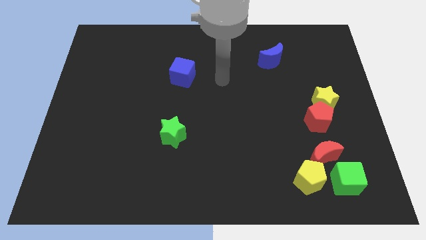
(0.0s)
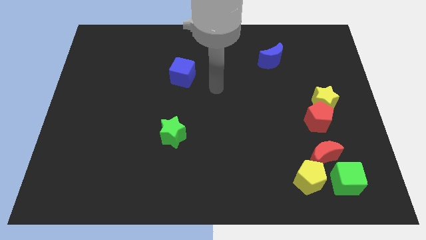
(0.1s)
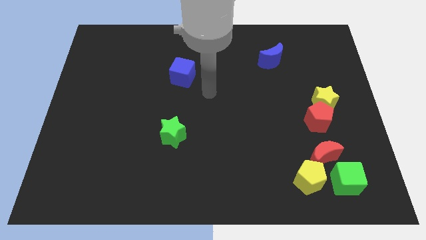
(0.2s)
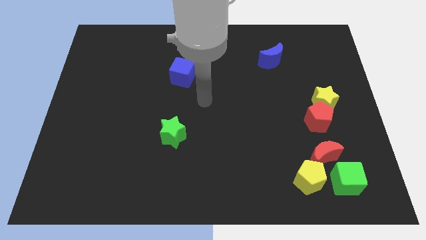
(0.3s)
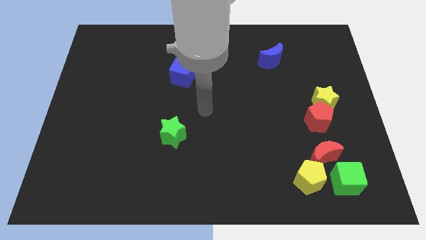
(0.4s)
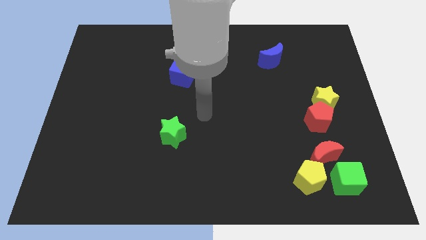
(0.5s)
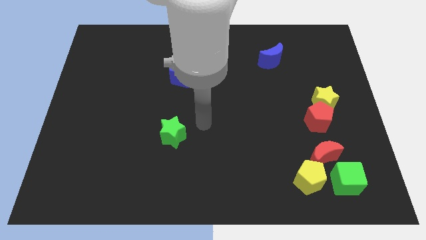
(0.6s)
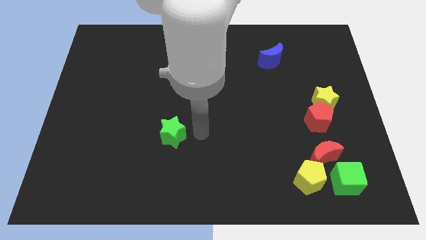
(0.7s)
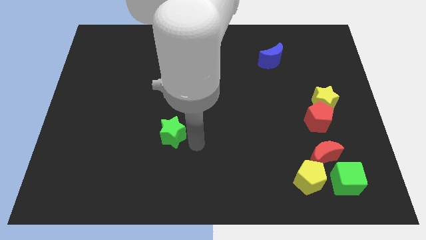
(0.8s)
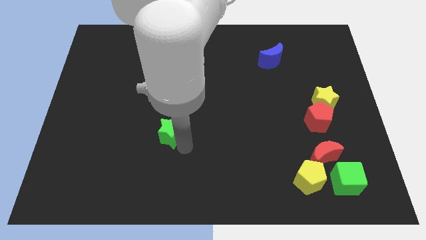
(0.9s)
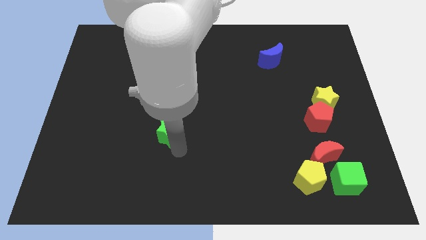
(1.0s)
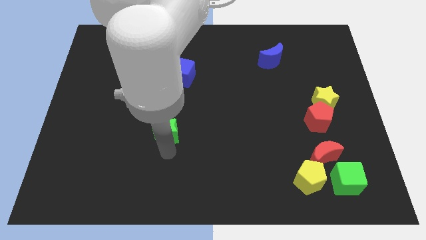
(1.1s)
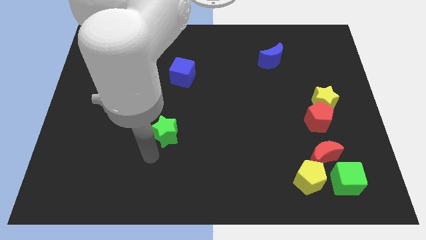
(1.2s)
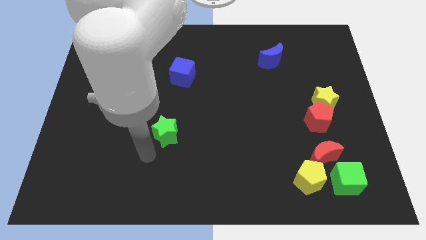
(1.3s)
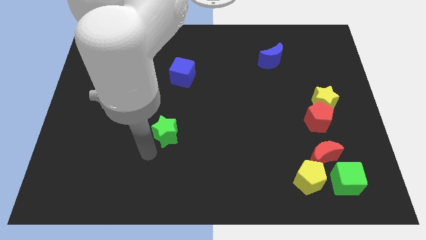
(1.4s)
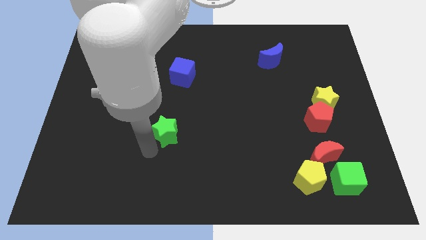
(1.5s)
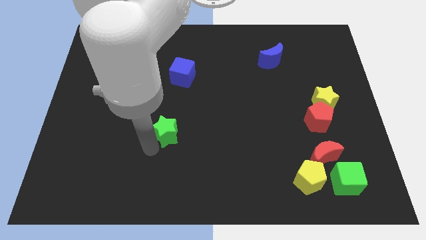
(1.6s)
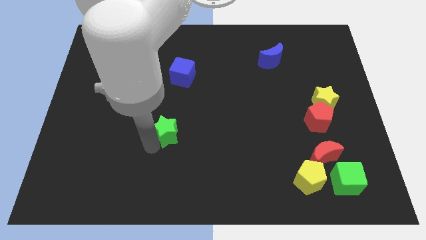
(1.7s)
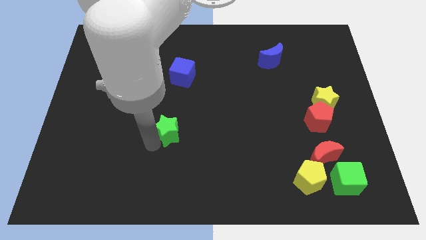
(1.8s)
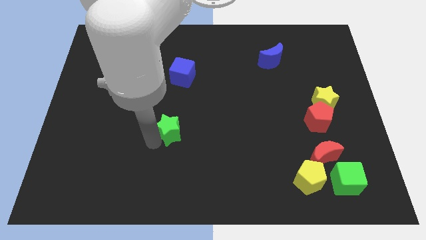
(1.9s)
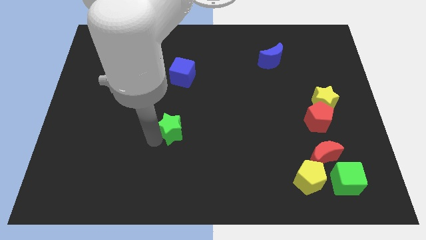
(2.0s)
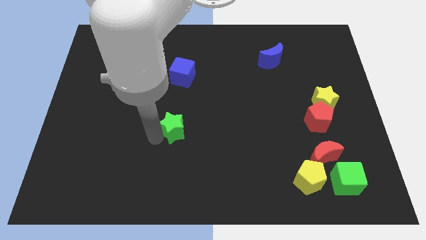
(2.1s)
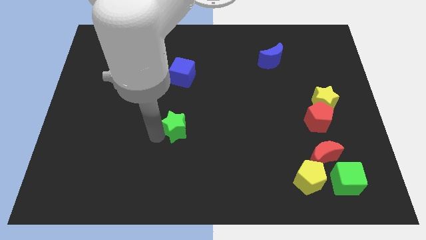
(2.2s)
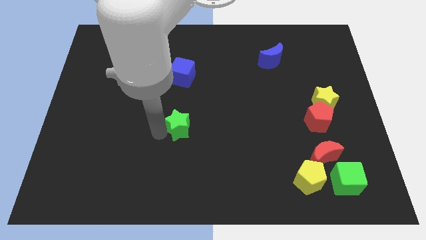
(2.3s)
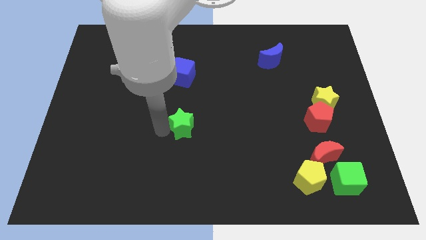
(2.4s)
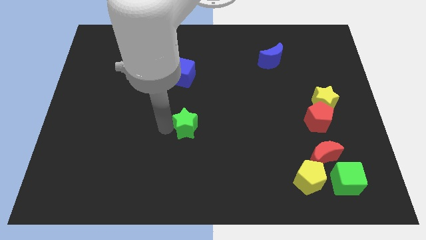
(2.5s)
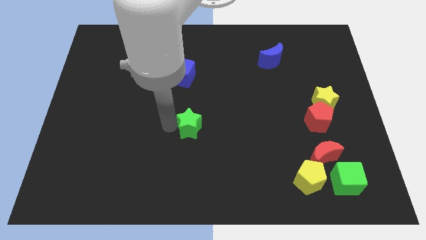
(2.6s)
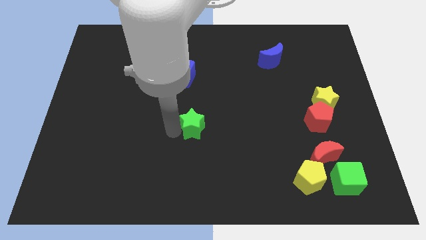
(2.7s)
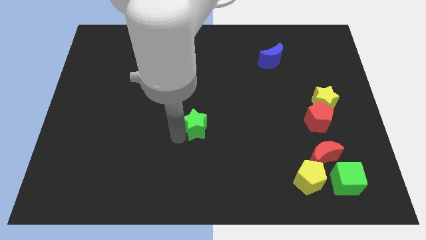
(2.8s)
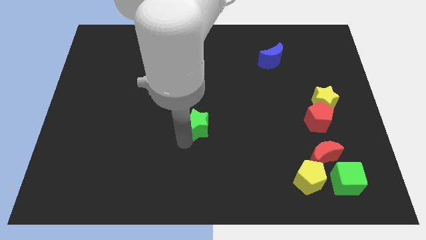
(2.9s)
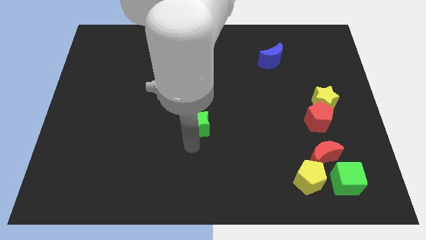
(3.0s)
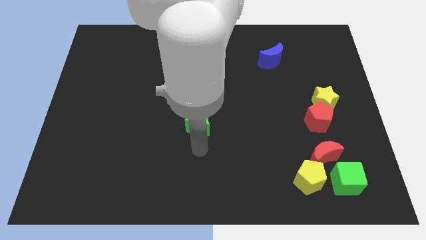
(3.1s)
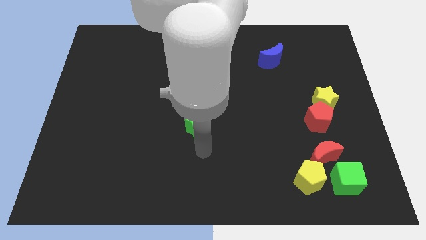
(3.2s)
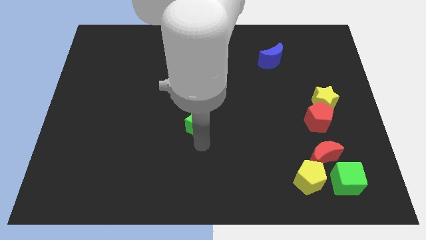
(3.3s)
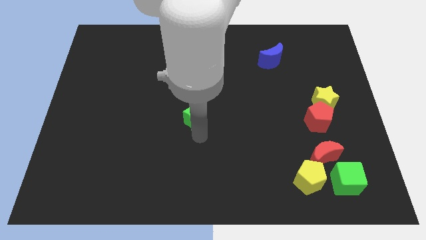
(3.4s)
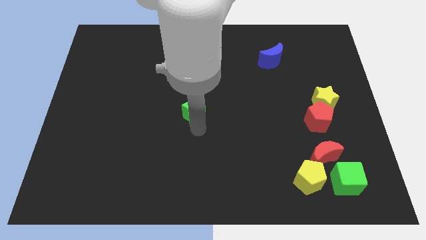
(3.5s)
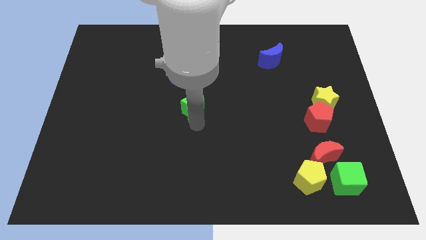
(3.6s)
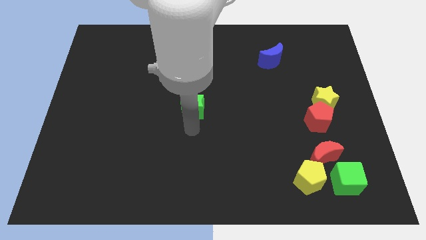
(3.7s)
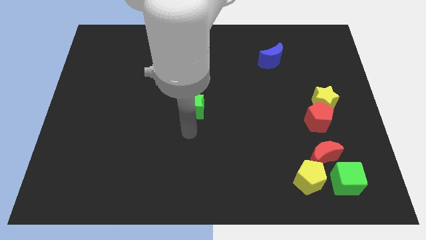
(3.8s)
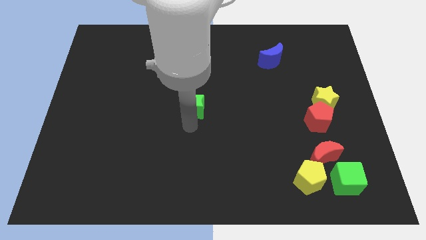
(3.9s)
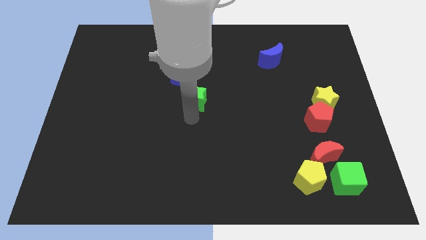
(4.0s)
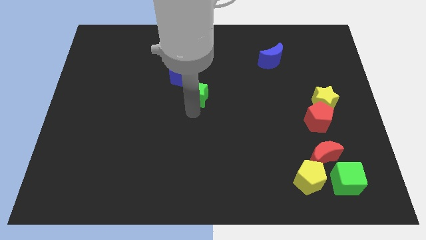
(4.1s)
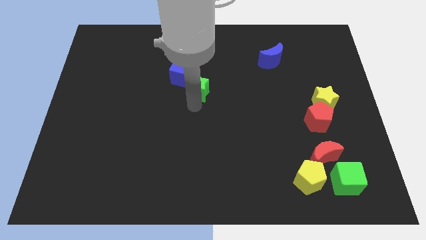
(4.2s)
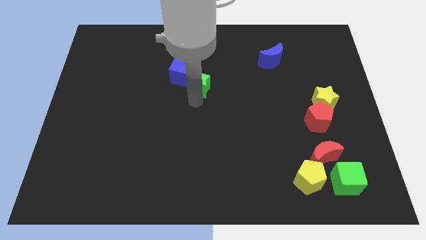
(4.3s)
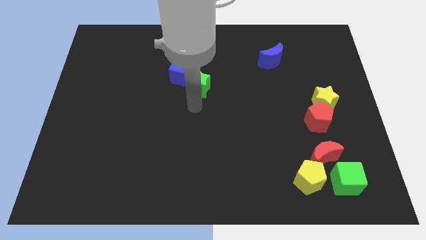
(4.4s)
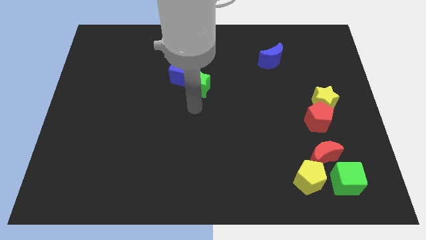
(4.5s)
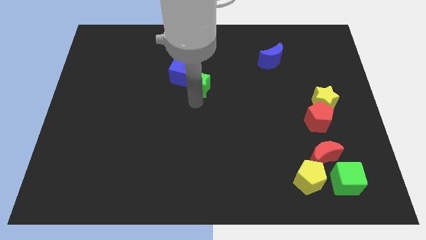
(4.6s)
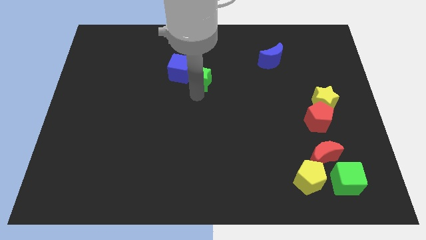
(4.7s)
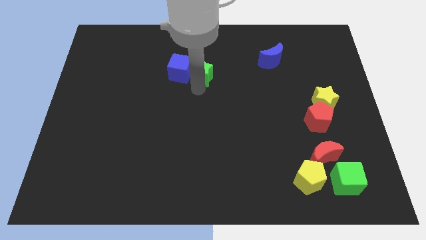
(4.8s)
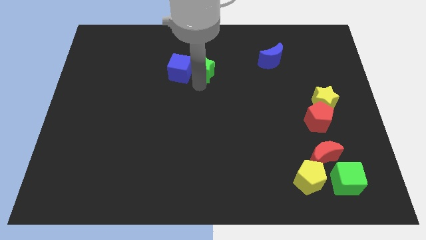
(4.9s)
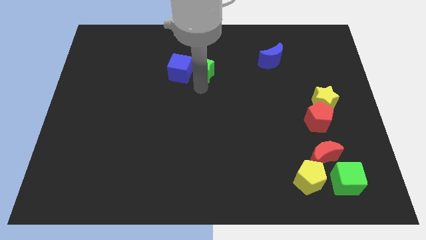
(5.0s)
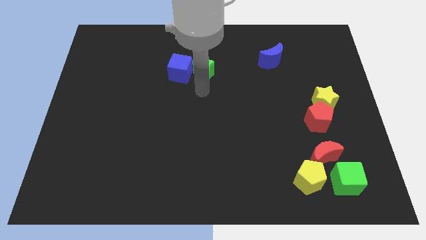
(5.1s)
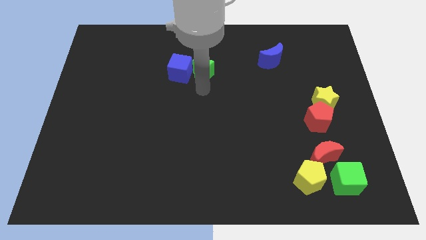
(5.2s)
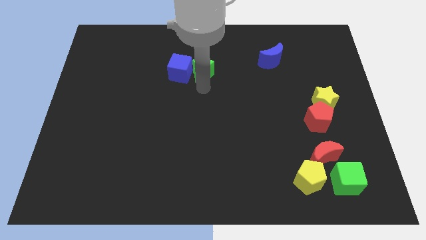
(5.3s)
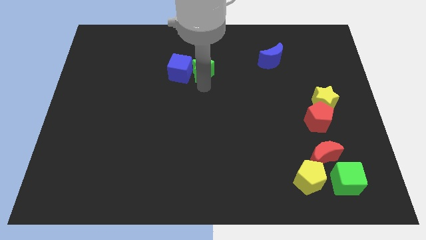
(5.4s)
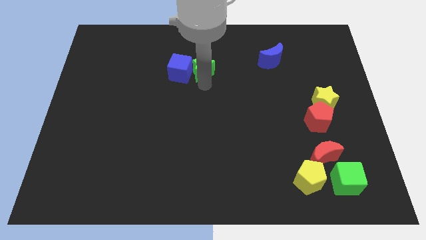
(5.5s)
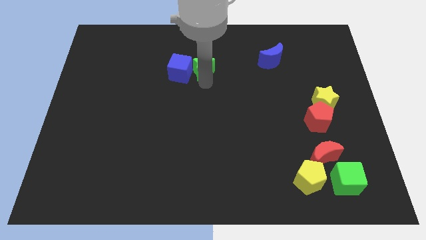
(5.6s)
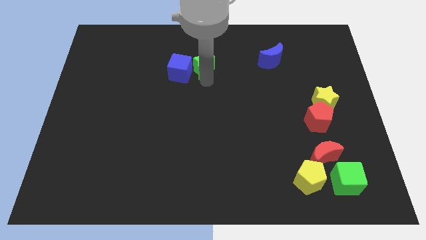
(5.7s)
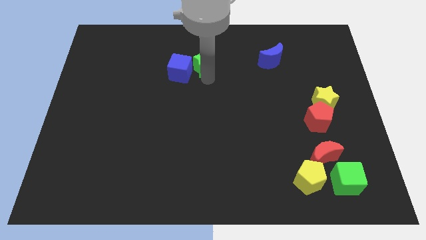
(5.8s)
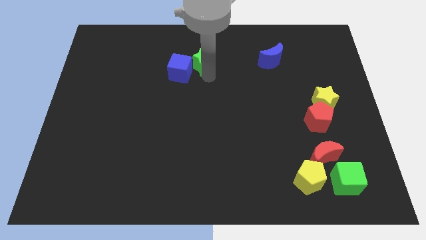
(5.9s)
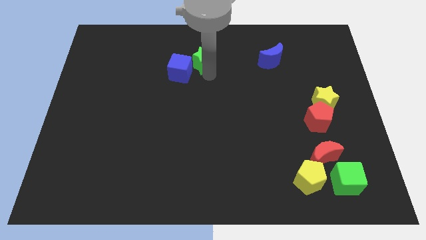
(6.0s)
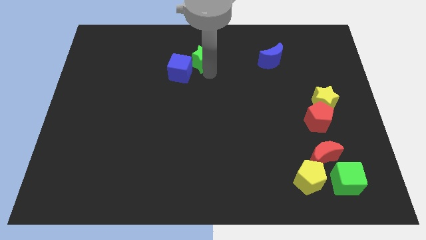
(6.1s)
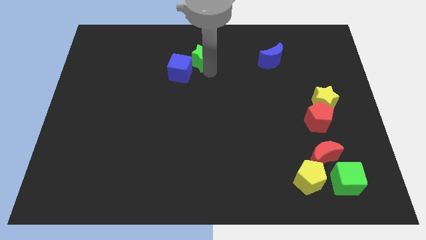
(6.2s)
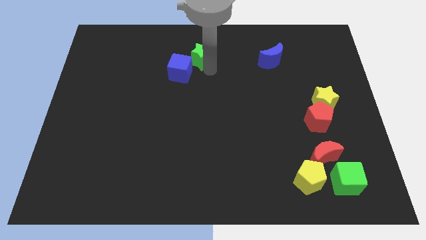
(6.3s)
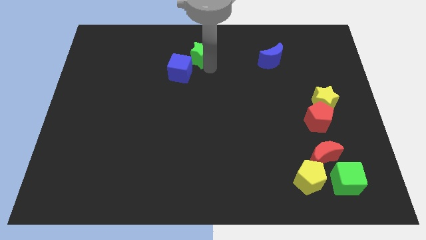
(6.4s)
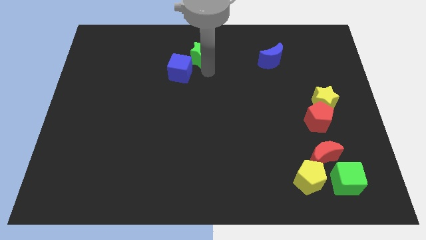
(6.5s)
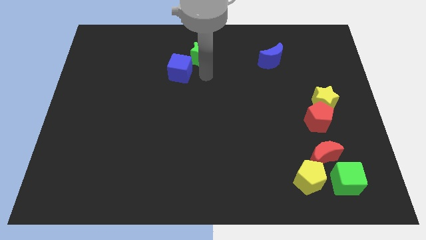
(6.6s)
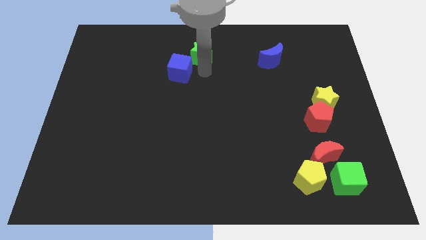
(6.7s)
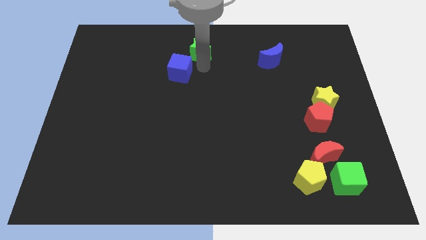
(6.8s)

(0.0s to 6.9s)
put the green star to the top side

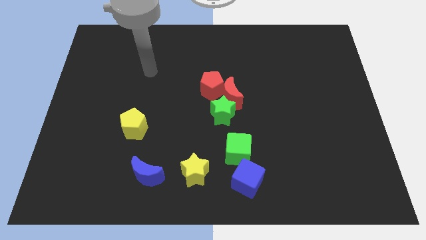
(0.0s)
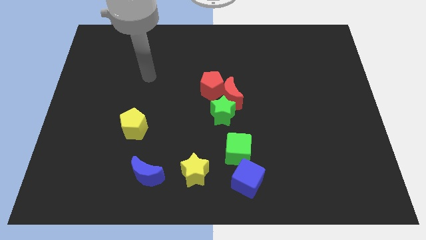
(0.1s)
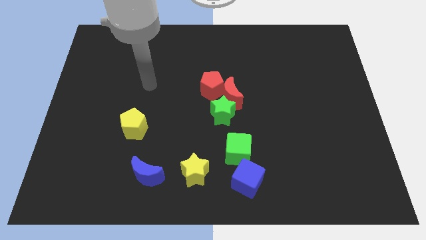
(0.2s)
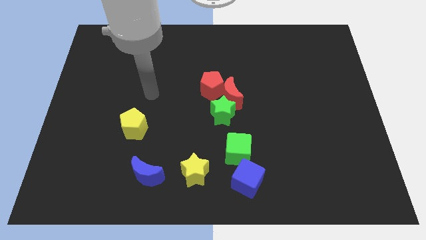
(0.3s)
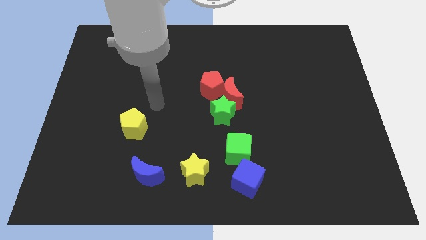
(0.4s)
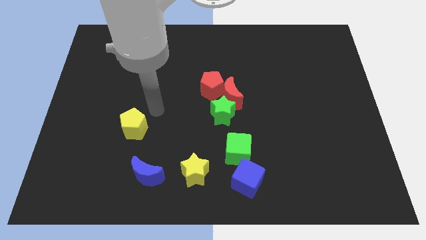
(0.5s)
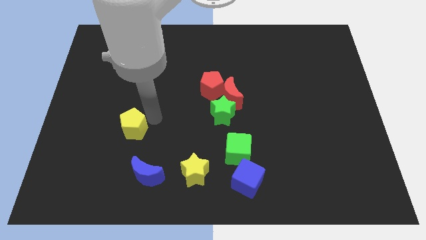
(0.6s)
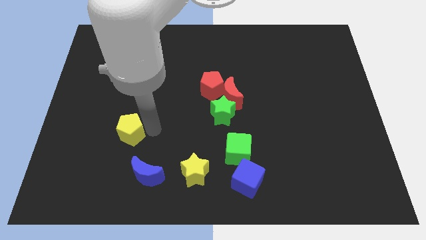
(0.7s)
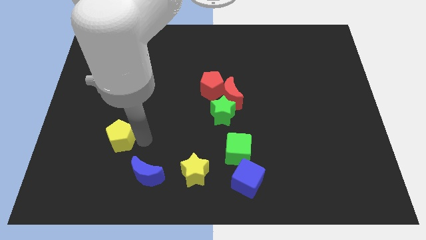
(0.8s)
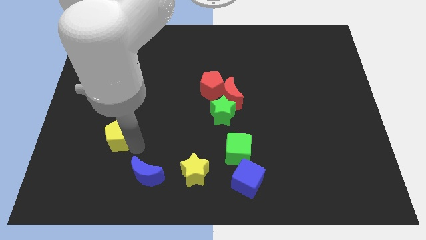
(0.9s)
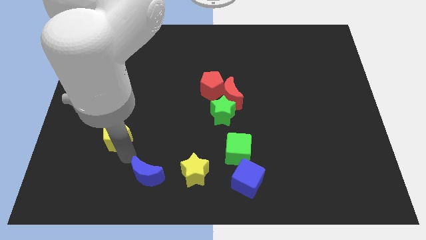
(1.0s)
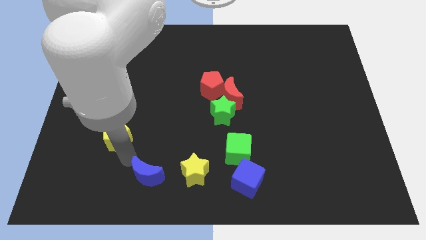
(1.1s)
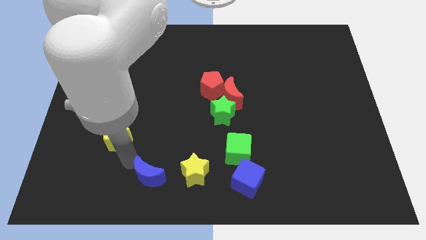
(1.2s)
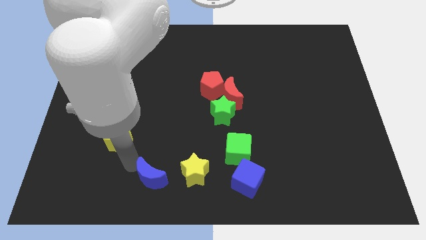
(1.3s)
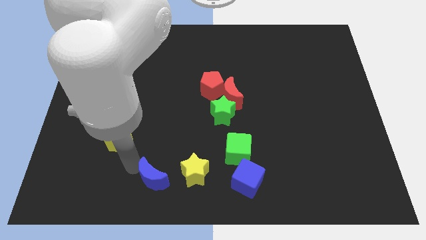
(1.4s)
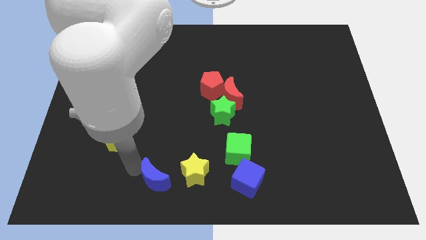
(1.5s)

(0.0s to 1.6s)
put the blue moon to the bottom side
